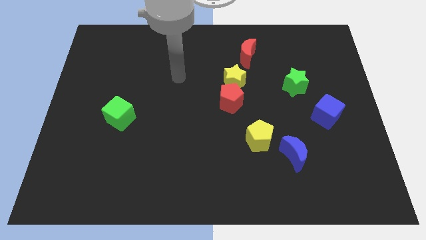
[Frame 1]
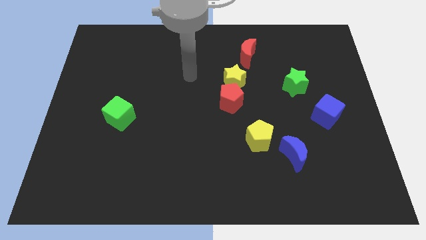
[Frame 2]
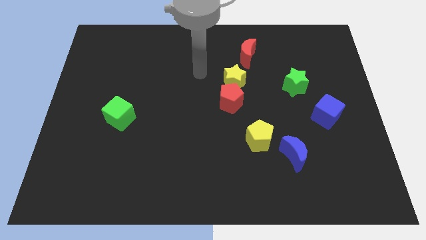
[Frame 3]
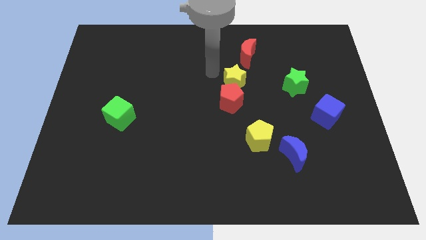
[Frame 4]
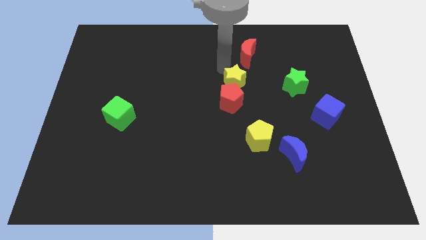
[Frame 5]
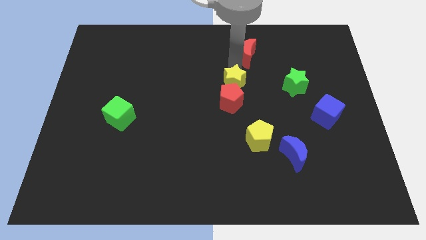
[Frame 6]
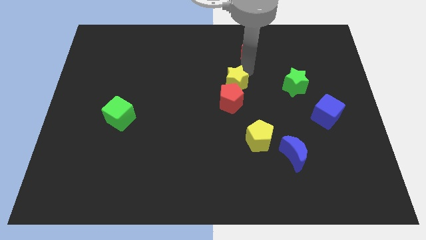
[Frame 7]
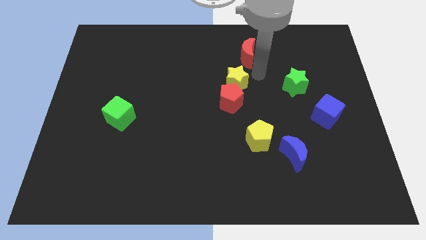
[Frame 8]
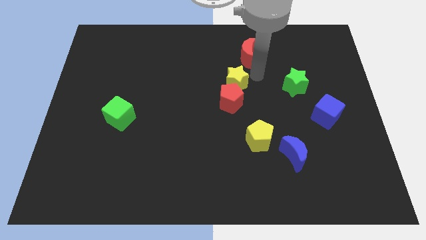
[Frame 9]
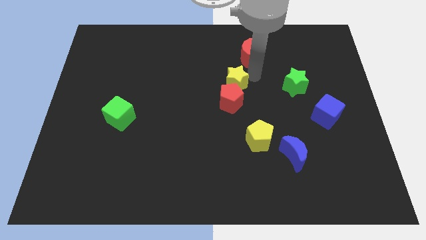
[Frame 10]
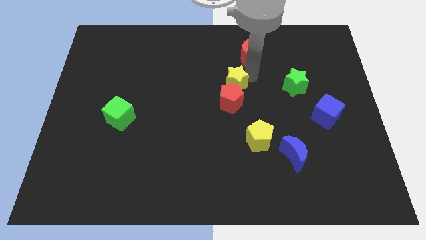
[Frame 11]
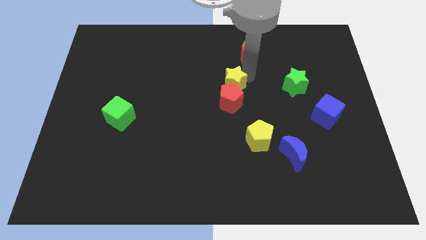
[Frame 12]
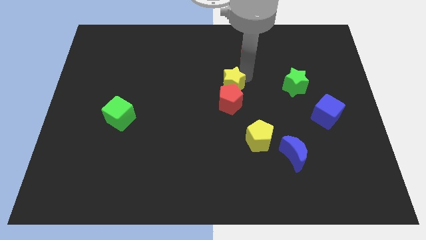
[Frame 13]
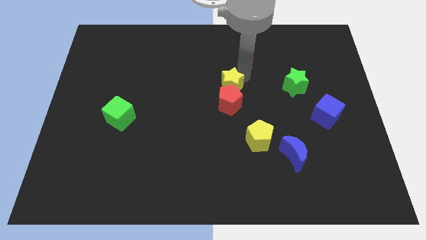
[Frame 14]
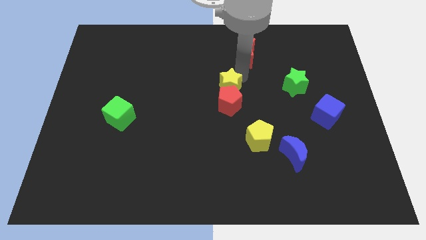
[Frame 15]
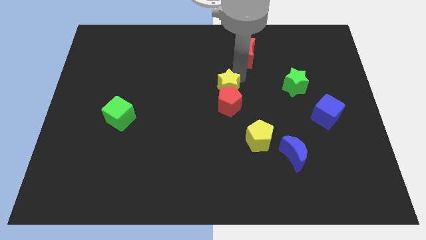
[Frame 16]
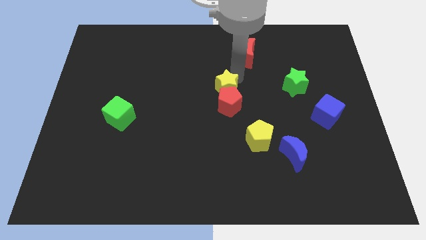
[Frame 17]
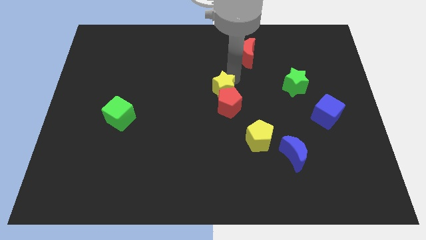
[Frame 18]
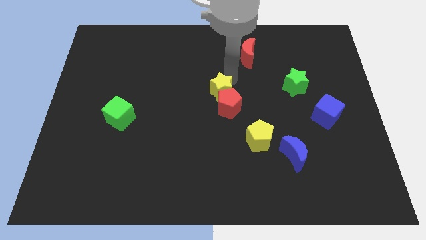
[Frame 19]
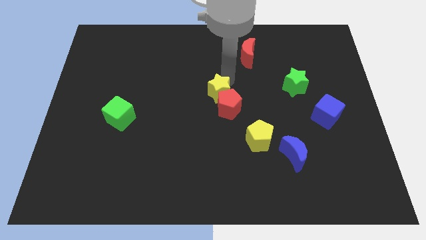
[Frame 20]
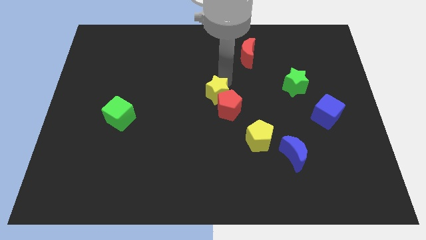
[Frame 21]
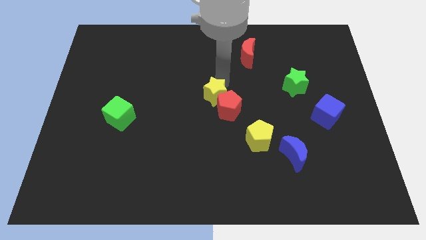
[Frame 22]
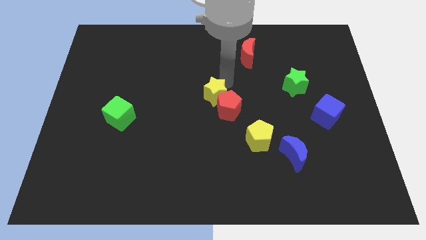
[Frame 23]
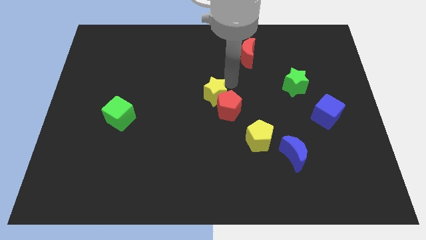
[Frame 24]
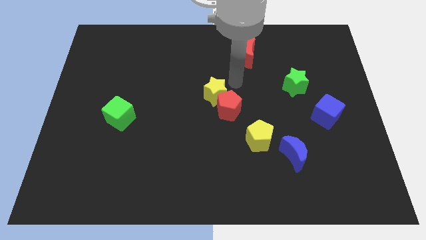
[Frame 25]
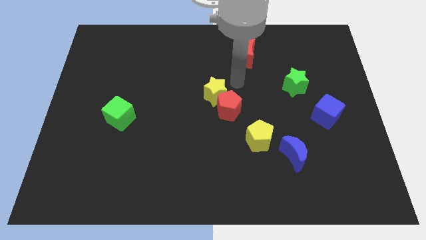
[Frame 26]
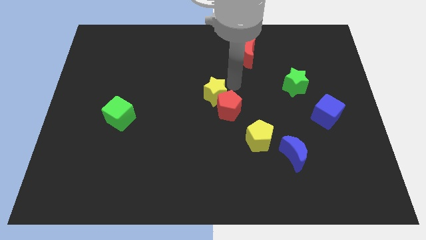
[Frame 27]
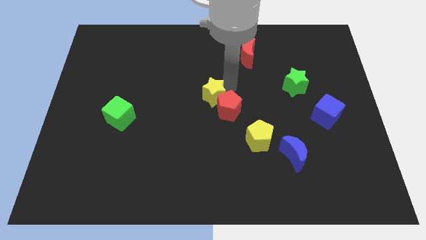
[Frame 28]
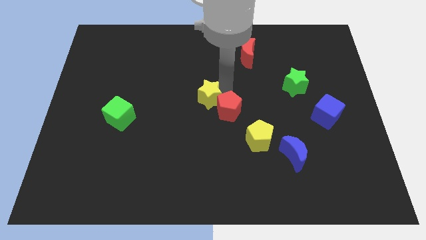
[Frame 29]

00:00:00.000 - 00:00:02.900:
slightly push the yellow star downwards and then to the left

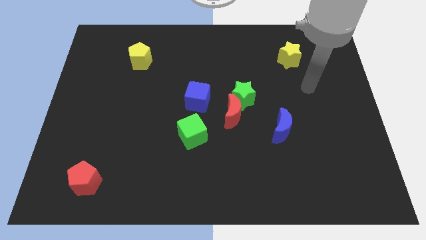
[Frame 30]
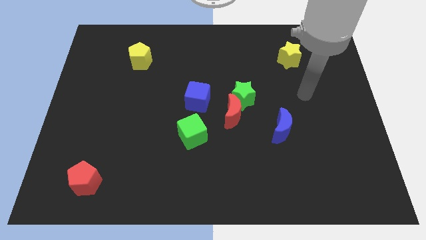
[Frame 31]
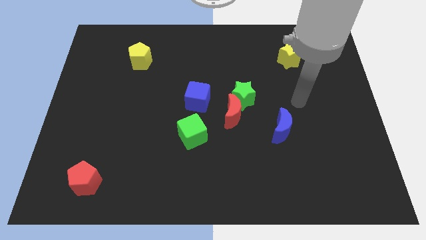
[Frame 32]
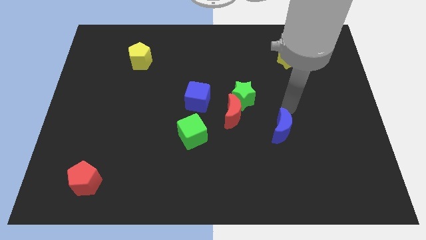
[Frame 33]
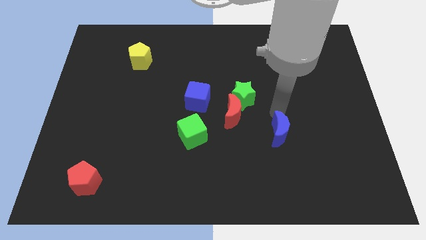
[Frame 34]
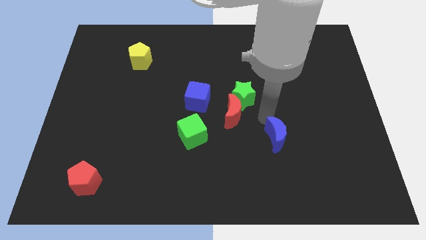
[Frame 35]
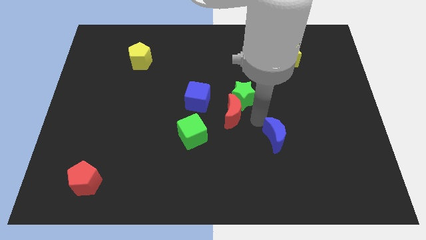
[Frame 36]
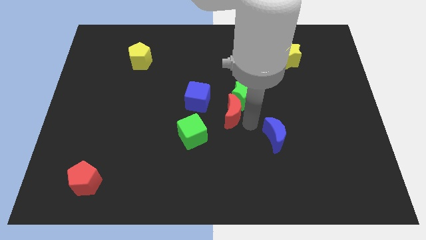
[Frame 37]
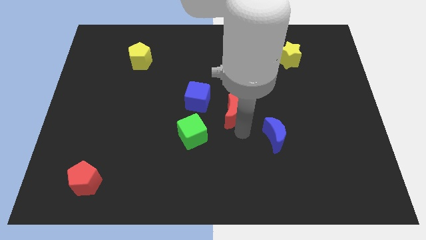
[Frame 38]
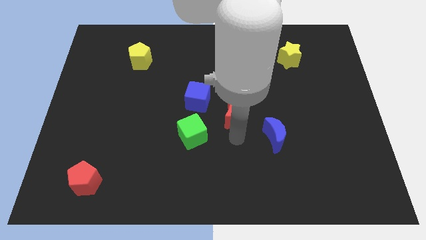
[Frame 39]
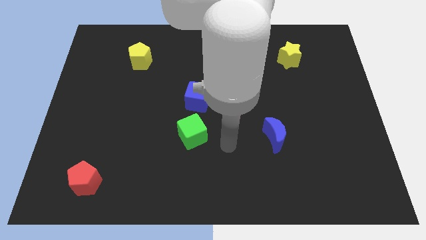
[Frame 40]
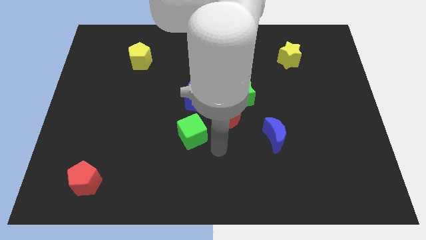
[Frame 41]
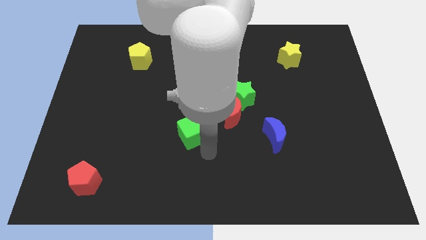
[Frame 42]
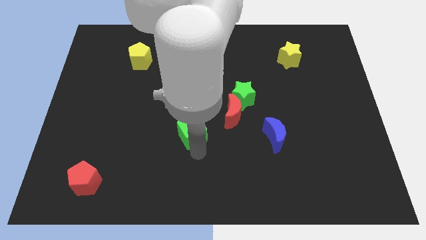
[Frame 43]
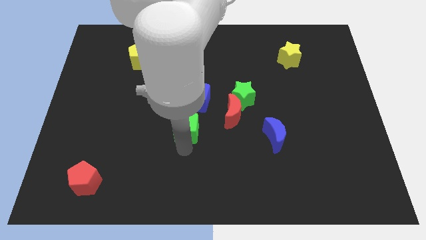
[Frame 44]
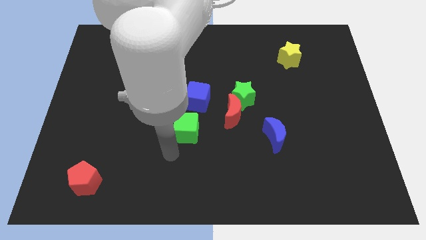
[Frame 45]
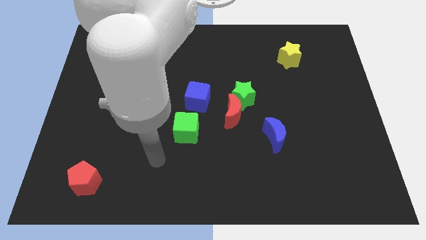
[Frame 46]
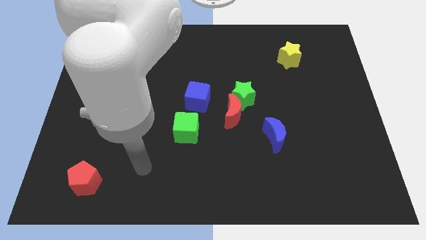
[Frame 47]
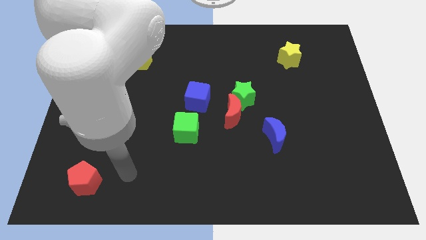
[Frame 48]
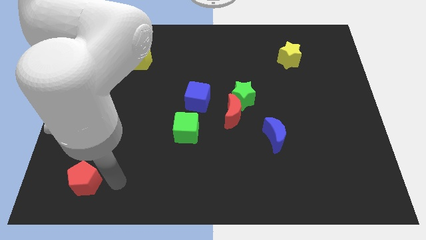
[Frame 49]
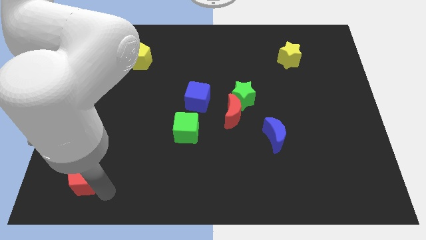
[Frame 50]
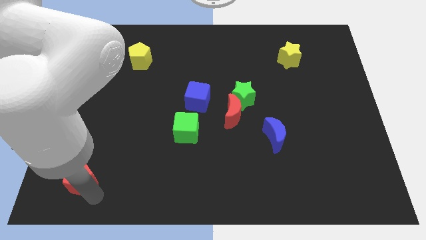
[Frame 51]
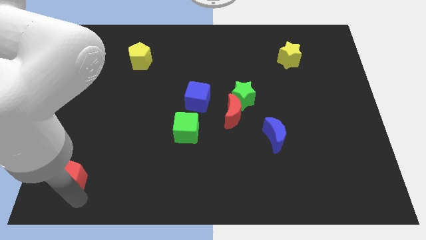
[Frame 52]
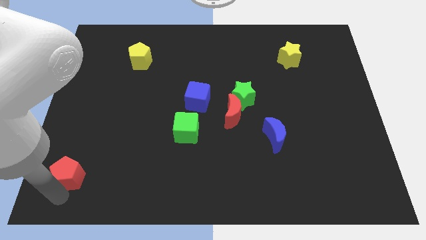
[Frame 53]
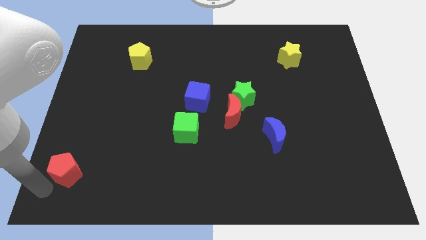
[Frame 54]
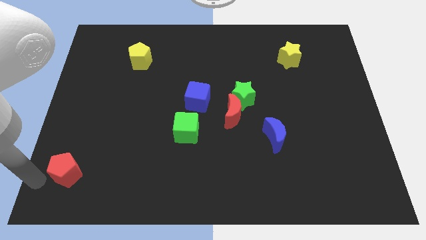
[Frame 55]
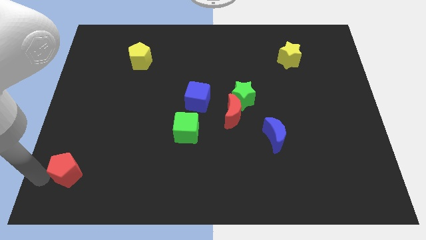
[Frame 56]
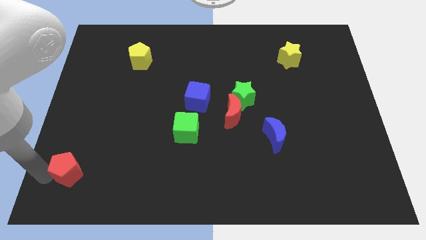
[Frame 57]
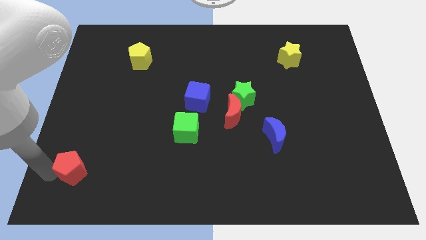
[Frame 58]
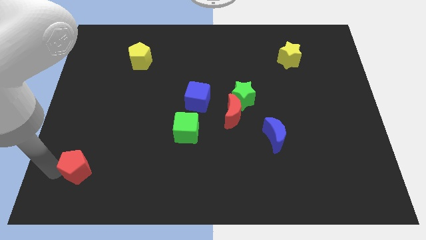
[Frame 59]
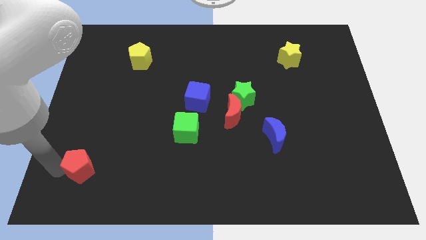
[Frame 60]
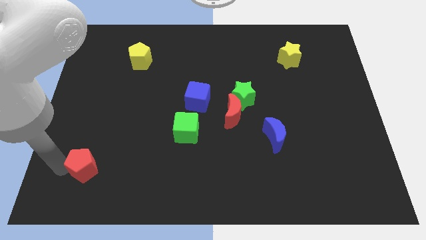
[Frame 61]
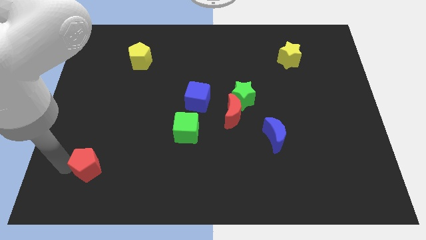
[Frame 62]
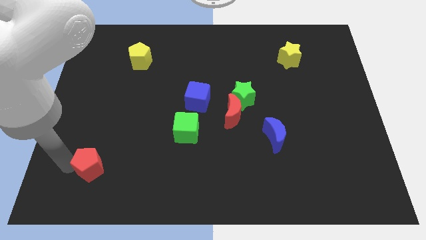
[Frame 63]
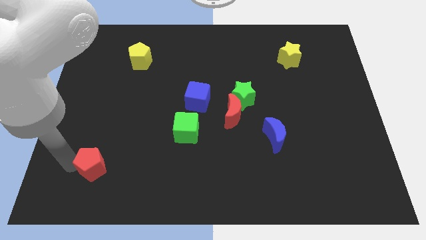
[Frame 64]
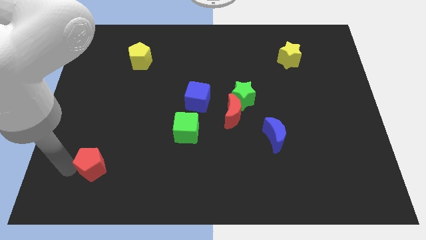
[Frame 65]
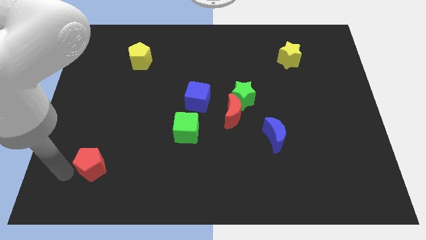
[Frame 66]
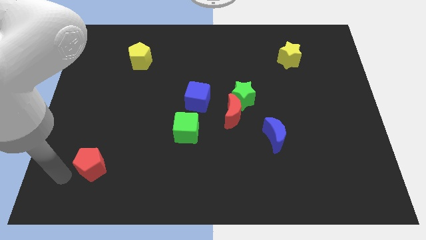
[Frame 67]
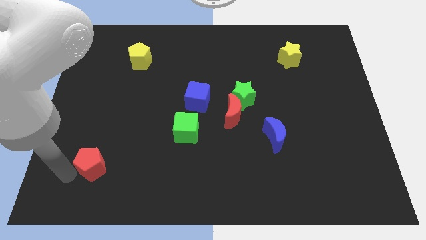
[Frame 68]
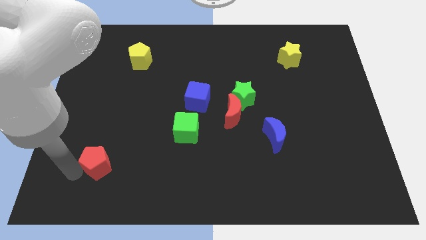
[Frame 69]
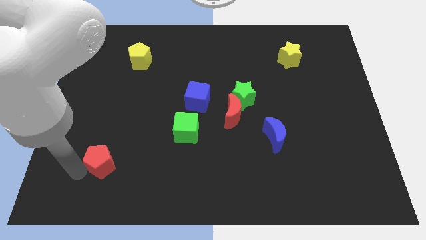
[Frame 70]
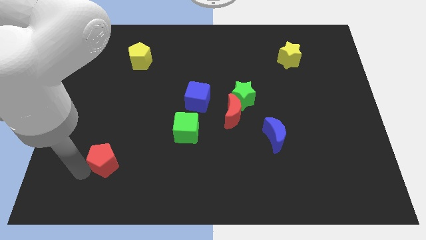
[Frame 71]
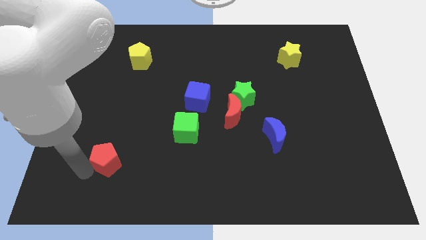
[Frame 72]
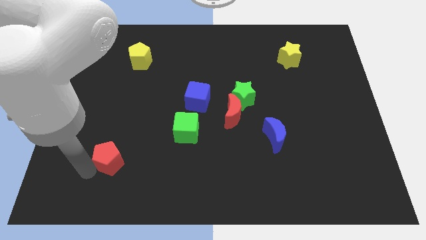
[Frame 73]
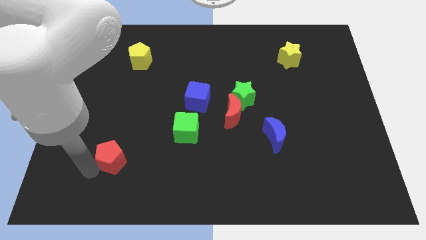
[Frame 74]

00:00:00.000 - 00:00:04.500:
push the red pentagon a bit diagonally up and to the right

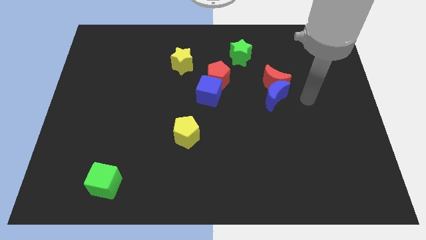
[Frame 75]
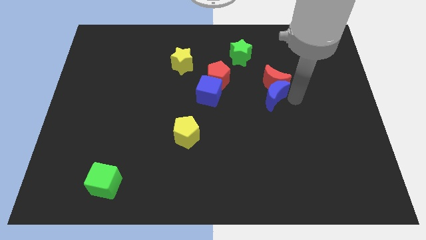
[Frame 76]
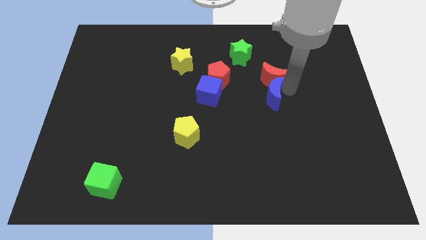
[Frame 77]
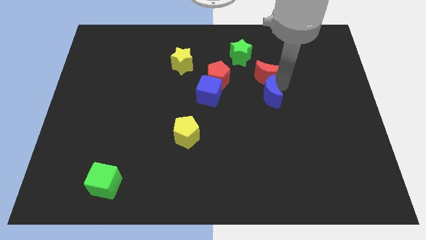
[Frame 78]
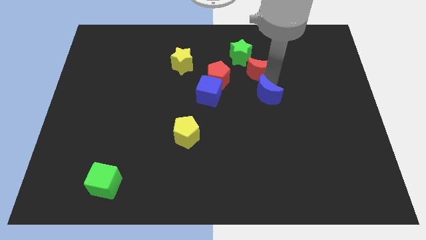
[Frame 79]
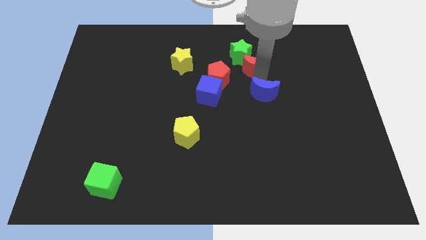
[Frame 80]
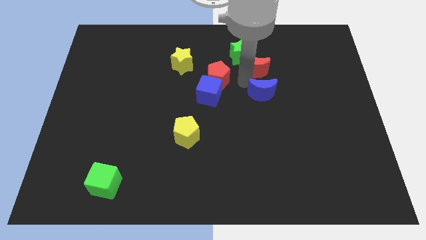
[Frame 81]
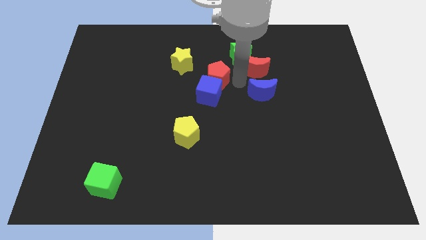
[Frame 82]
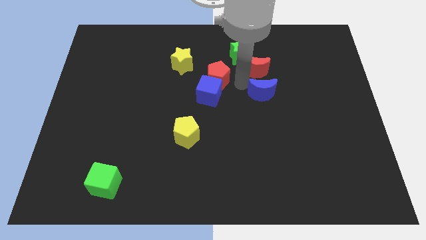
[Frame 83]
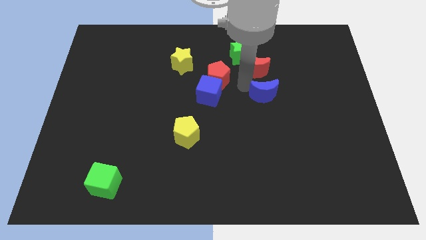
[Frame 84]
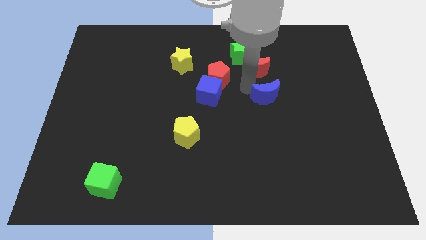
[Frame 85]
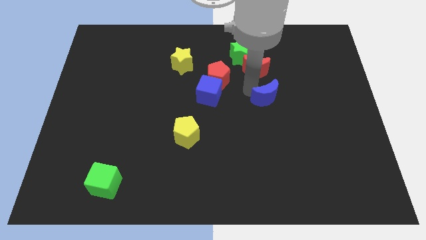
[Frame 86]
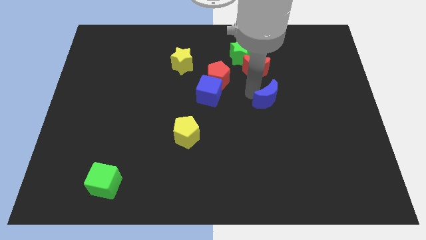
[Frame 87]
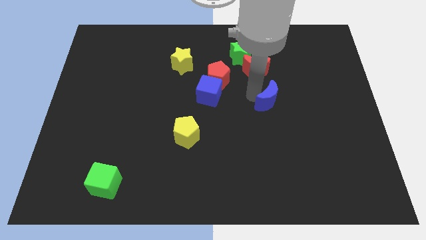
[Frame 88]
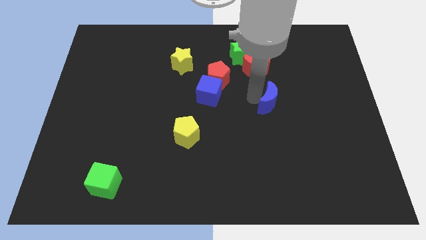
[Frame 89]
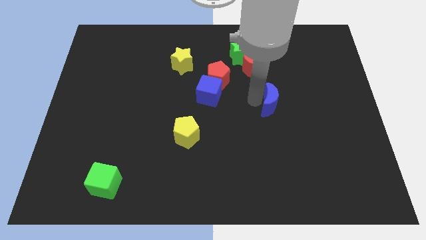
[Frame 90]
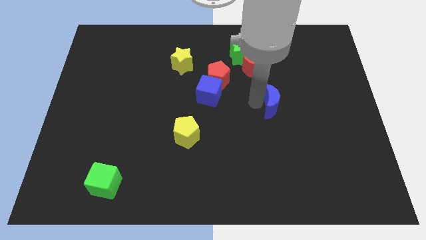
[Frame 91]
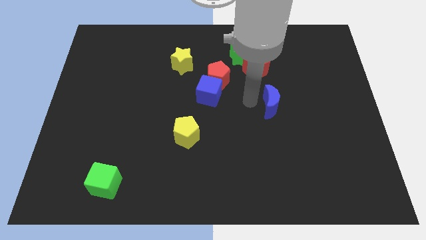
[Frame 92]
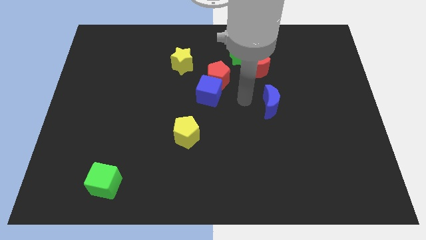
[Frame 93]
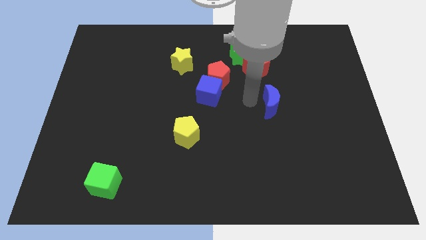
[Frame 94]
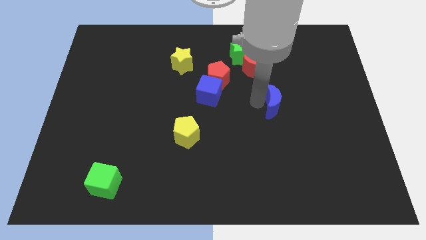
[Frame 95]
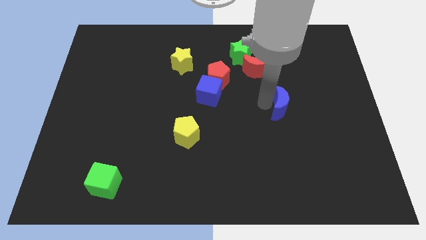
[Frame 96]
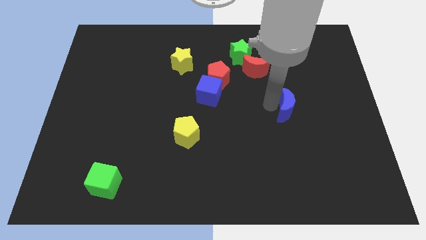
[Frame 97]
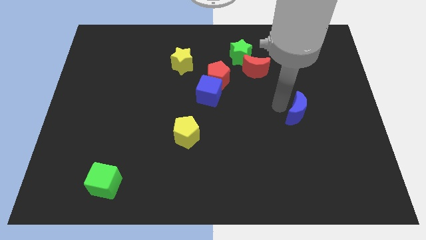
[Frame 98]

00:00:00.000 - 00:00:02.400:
slightly move the blue moon diagonally down and to the right
